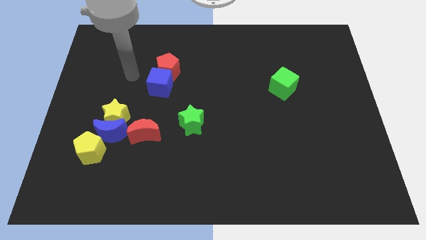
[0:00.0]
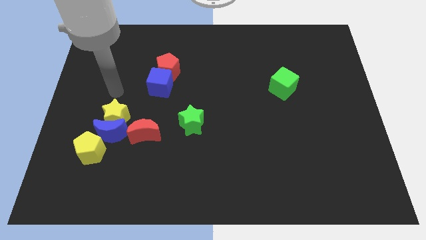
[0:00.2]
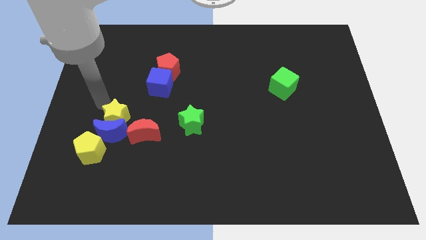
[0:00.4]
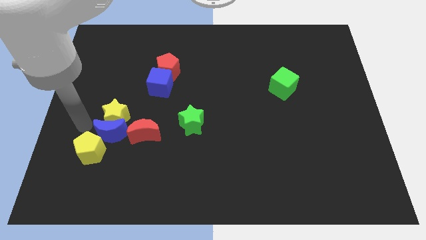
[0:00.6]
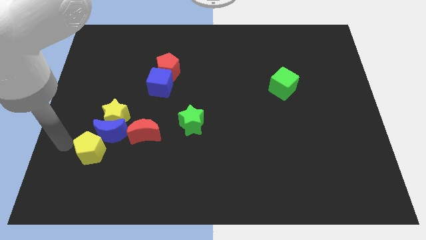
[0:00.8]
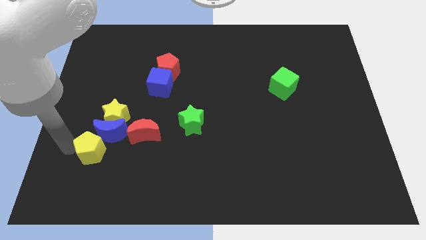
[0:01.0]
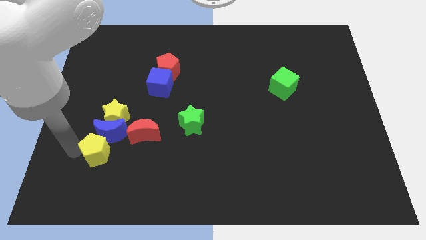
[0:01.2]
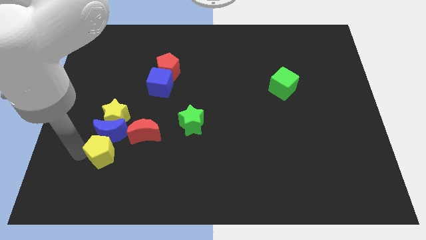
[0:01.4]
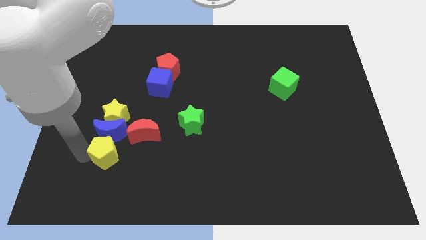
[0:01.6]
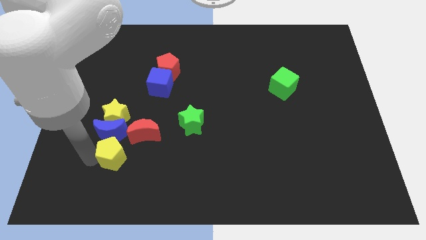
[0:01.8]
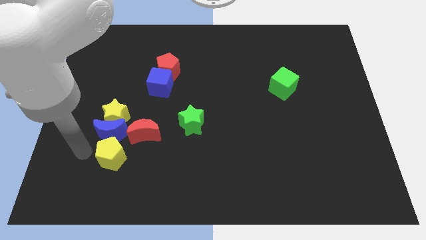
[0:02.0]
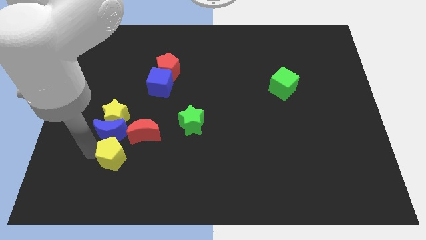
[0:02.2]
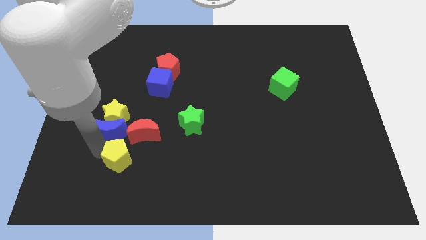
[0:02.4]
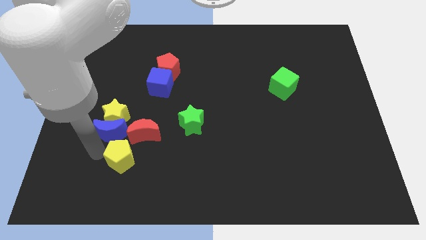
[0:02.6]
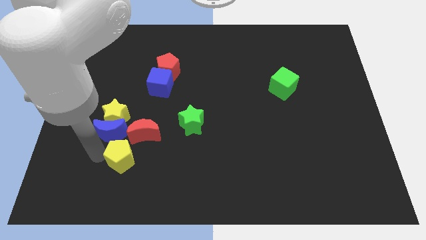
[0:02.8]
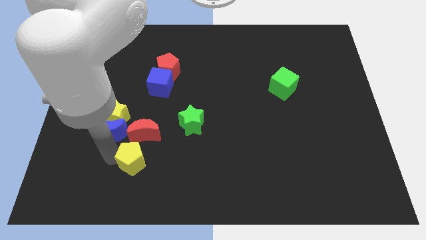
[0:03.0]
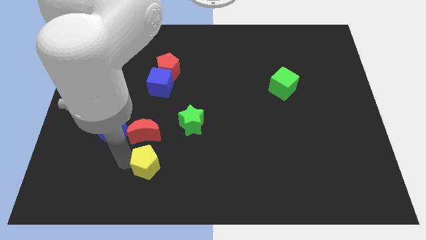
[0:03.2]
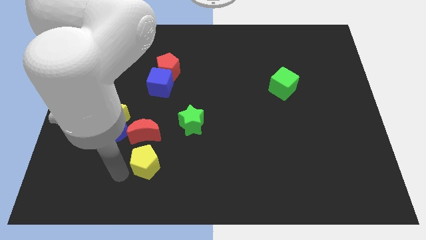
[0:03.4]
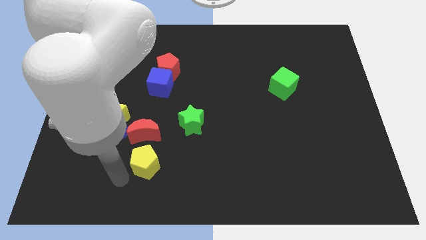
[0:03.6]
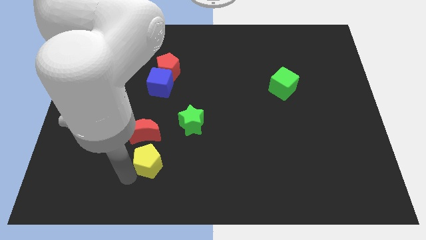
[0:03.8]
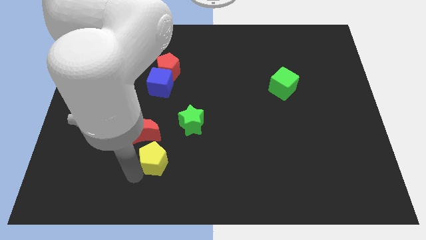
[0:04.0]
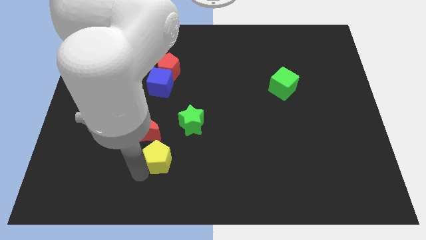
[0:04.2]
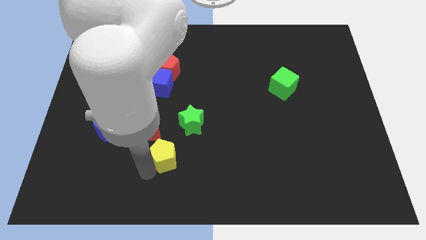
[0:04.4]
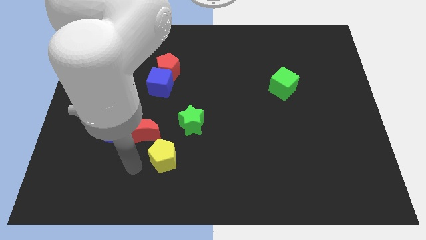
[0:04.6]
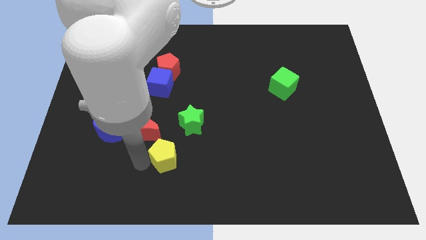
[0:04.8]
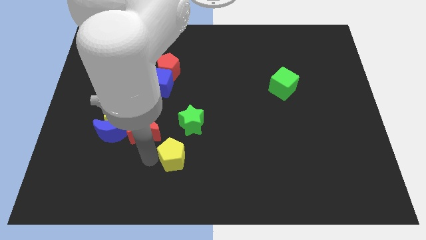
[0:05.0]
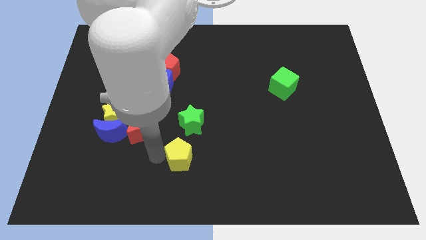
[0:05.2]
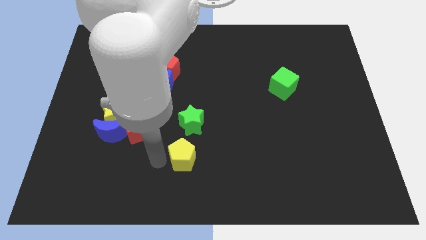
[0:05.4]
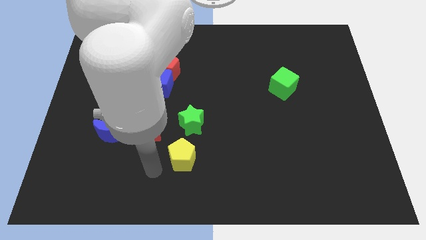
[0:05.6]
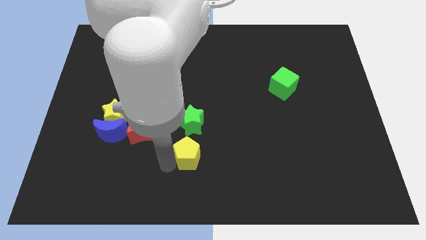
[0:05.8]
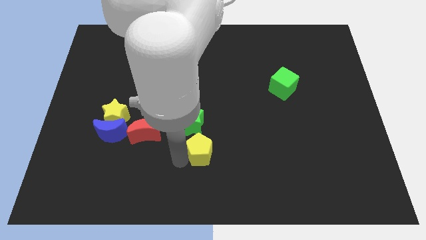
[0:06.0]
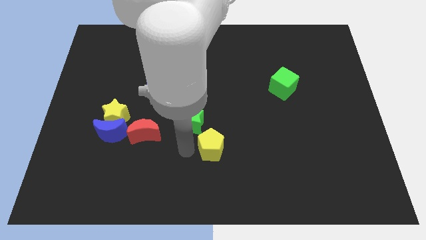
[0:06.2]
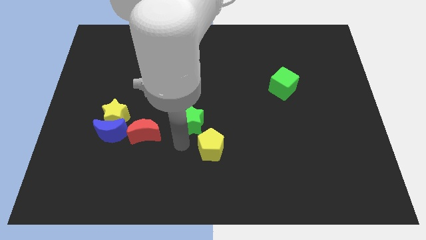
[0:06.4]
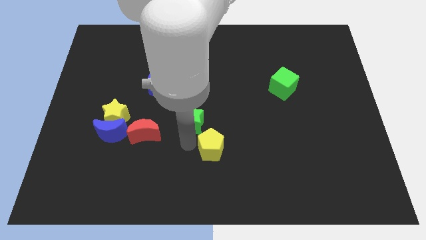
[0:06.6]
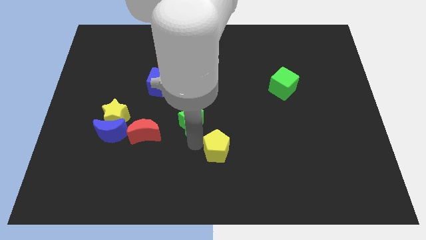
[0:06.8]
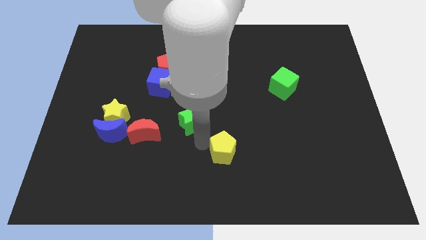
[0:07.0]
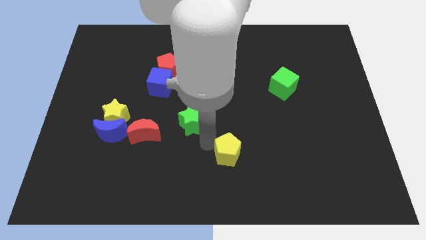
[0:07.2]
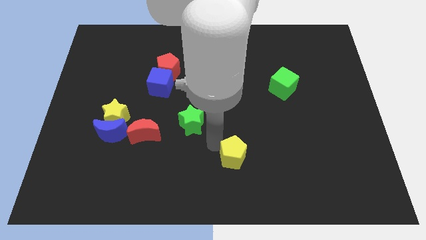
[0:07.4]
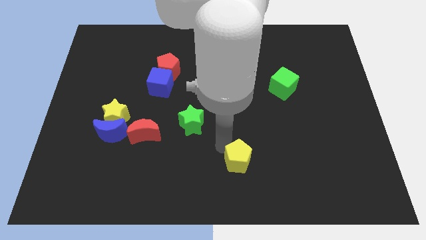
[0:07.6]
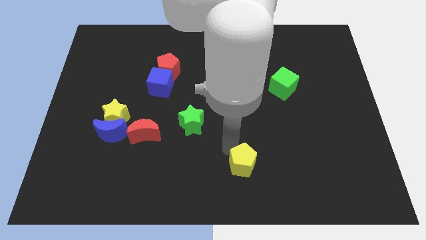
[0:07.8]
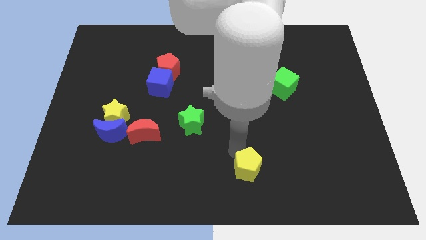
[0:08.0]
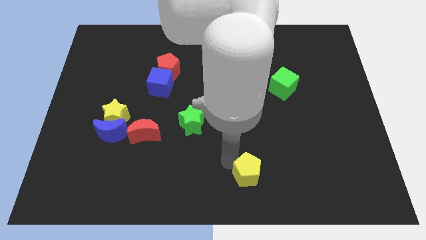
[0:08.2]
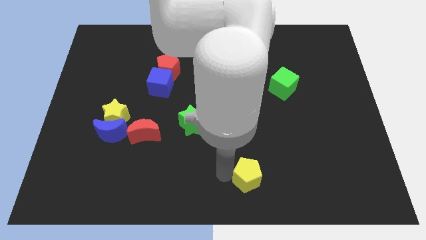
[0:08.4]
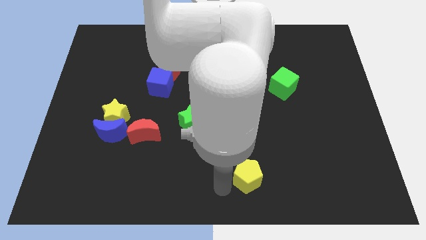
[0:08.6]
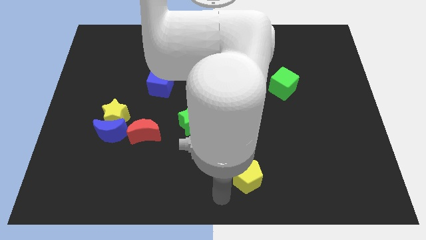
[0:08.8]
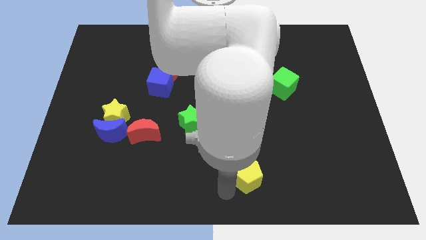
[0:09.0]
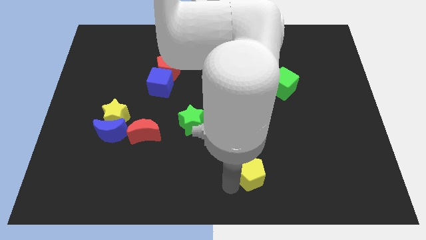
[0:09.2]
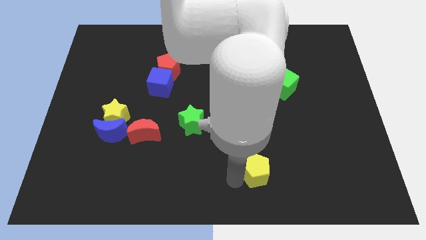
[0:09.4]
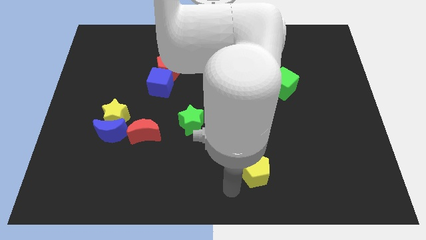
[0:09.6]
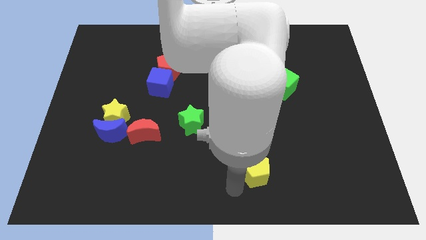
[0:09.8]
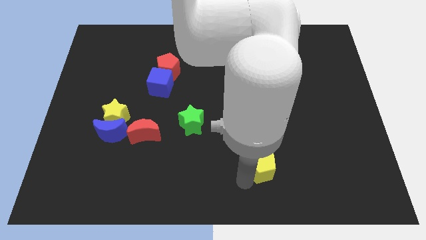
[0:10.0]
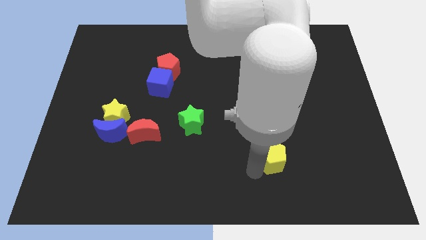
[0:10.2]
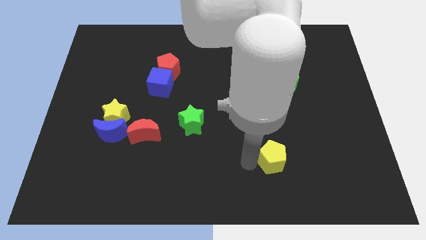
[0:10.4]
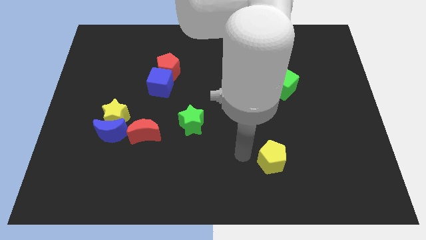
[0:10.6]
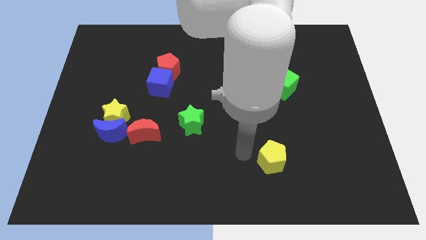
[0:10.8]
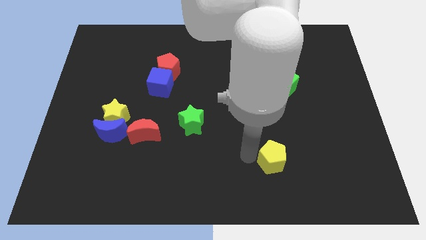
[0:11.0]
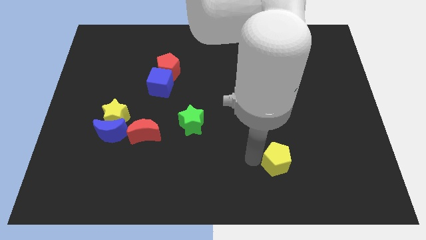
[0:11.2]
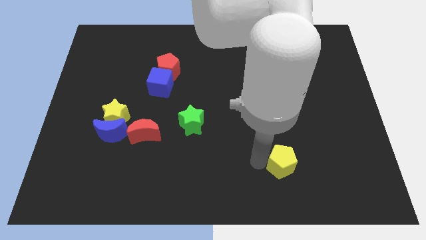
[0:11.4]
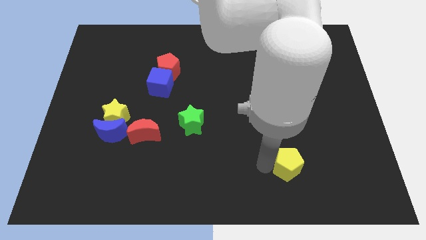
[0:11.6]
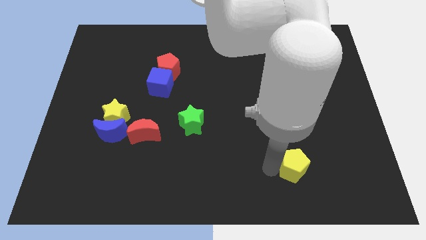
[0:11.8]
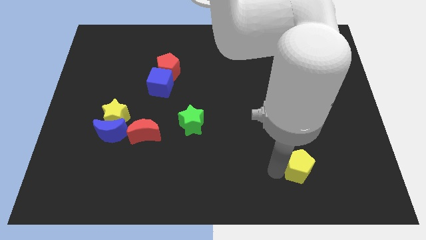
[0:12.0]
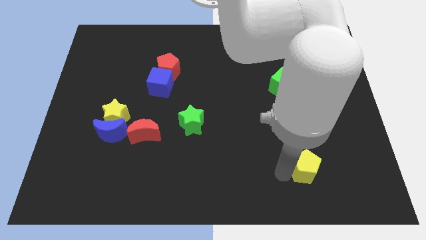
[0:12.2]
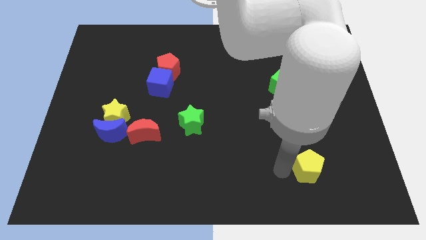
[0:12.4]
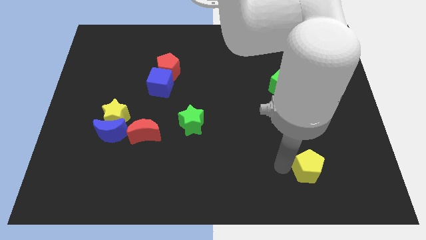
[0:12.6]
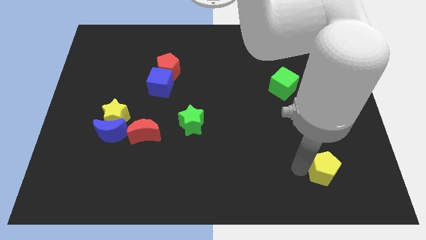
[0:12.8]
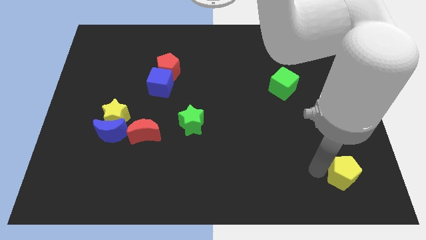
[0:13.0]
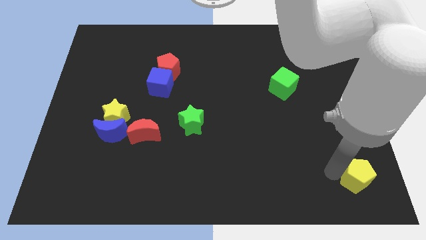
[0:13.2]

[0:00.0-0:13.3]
slide the yellow pentagon to the lower right corner

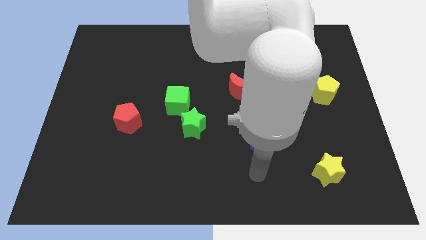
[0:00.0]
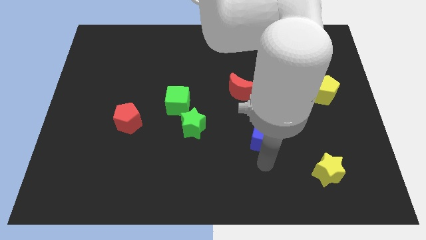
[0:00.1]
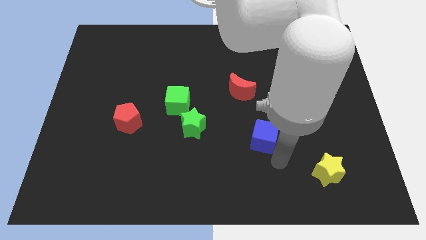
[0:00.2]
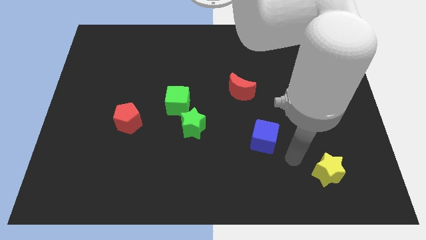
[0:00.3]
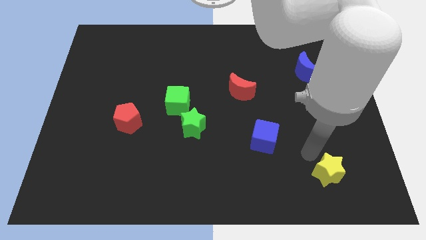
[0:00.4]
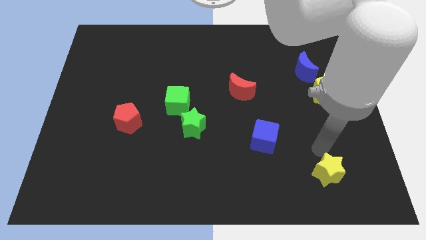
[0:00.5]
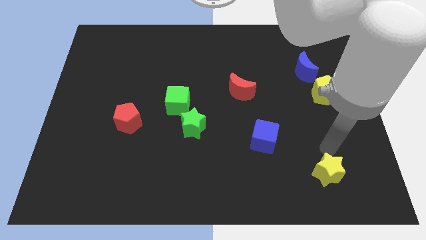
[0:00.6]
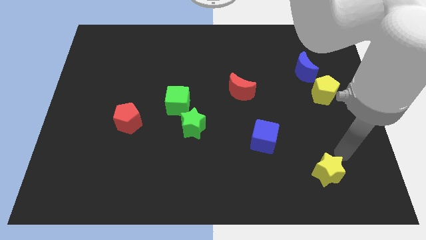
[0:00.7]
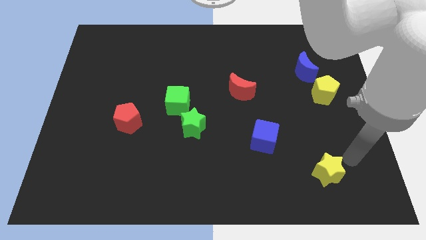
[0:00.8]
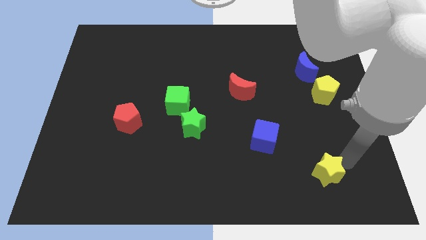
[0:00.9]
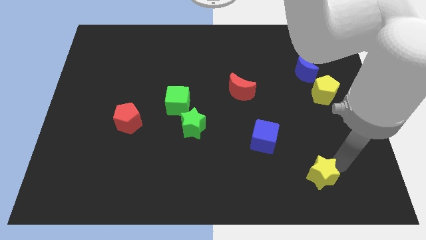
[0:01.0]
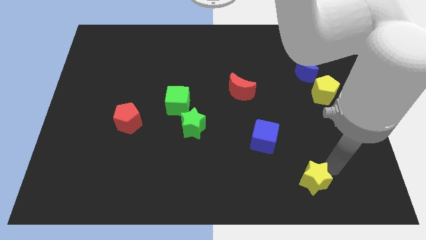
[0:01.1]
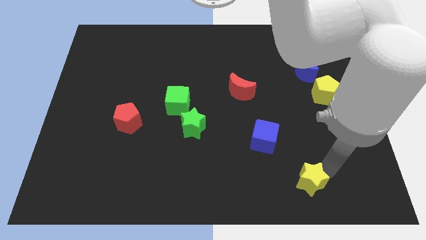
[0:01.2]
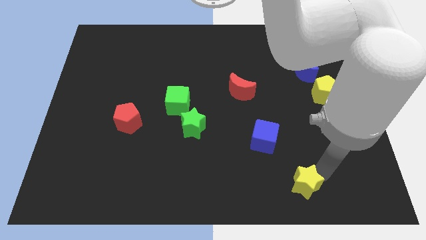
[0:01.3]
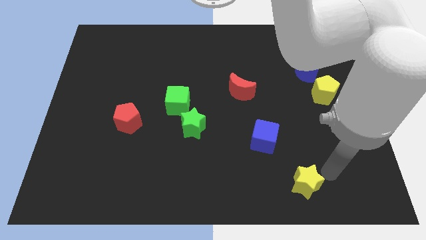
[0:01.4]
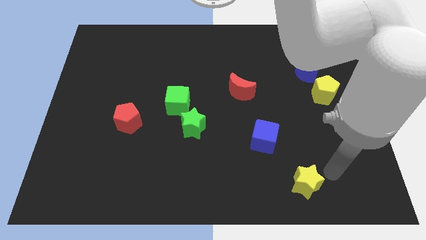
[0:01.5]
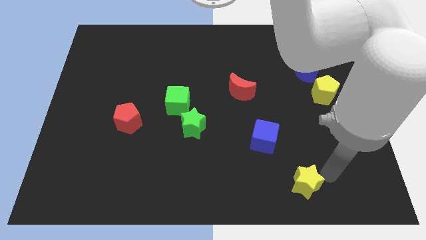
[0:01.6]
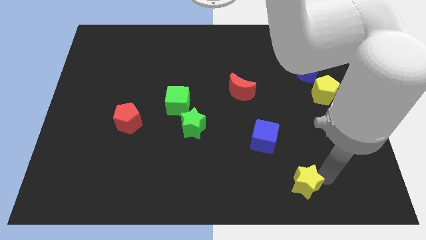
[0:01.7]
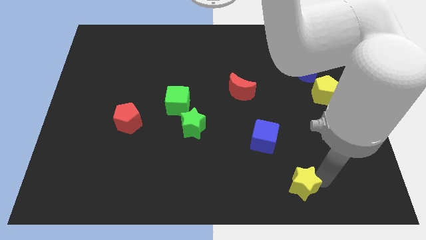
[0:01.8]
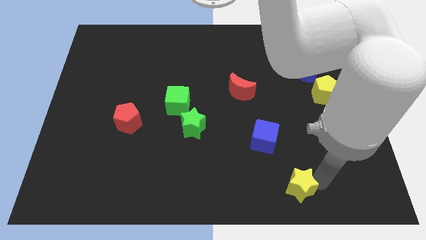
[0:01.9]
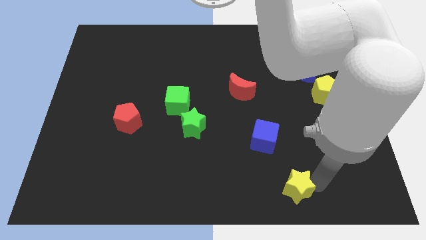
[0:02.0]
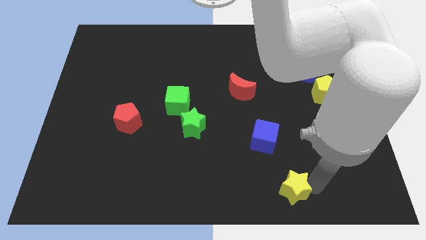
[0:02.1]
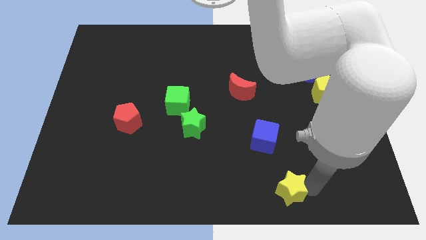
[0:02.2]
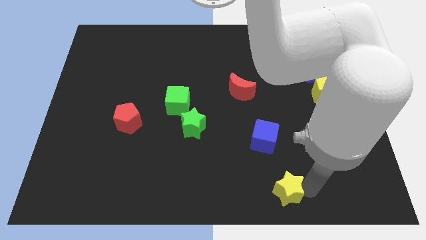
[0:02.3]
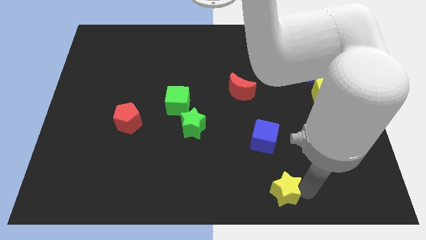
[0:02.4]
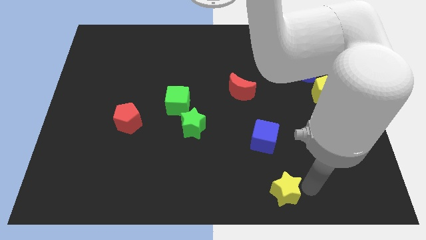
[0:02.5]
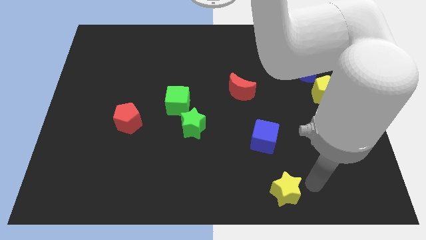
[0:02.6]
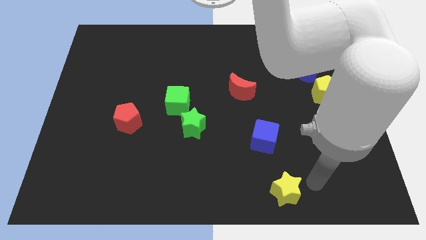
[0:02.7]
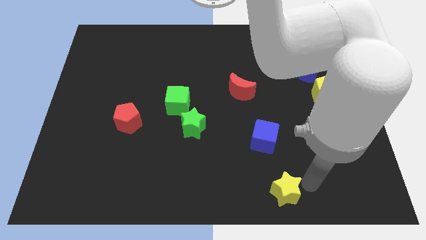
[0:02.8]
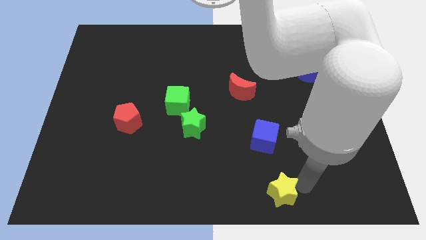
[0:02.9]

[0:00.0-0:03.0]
move the yellow star to the bottom
